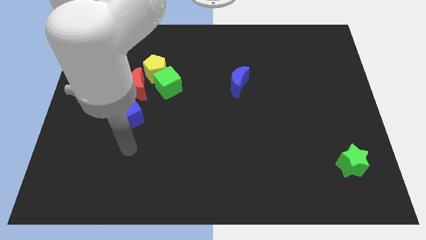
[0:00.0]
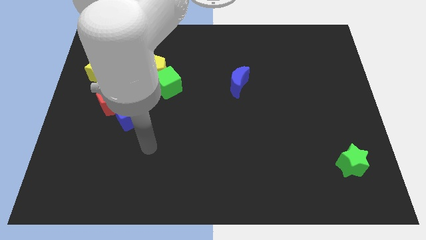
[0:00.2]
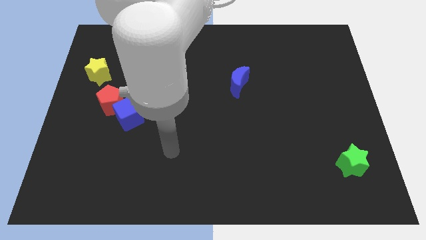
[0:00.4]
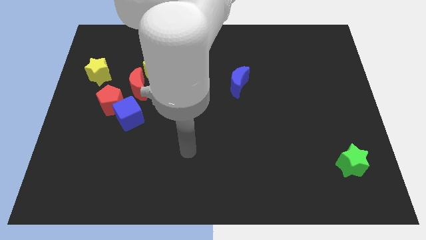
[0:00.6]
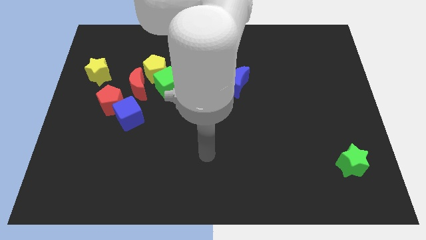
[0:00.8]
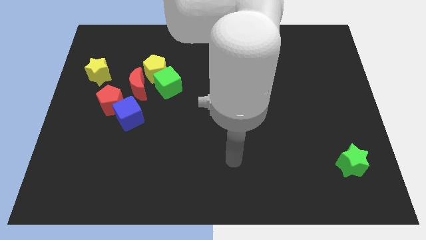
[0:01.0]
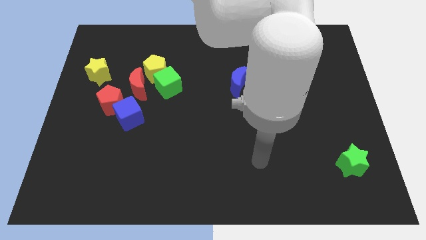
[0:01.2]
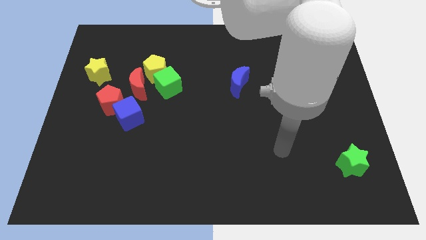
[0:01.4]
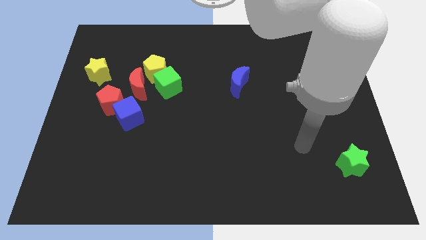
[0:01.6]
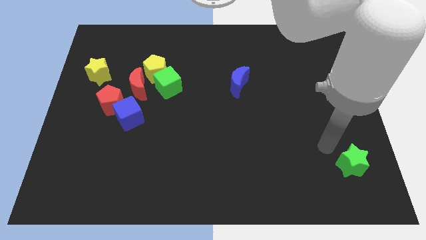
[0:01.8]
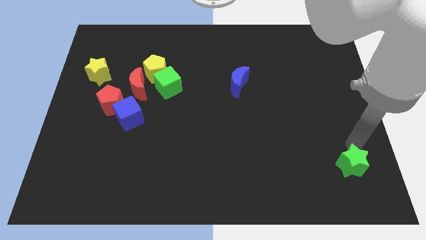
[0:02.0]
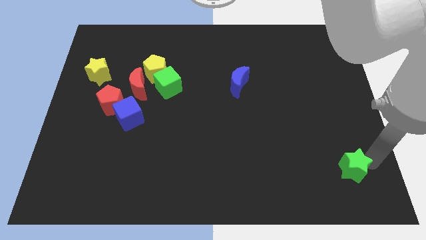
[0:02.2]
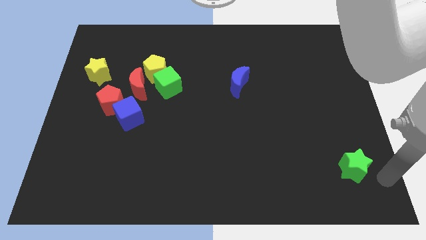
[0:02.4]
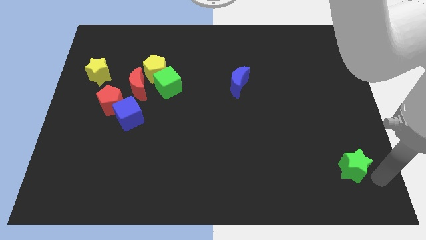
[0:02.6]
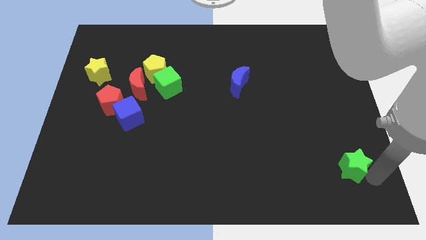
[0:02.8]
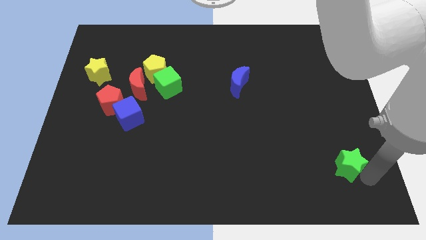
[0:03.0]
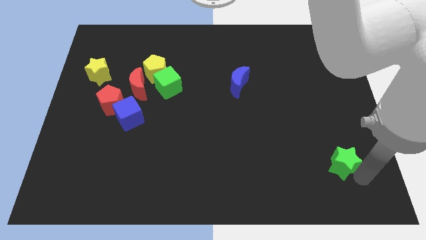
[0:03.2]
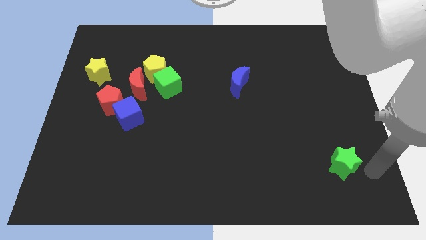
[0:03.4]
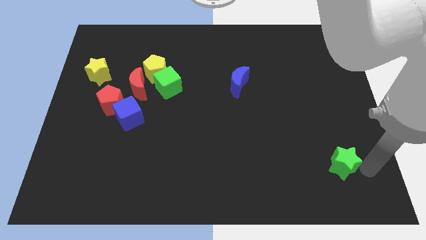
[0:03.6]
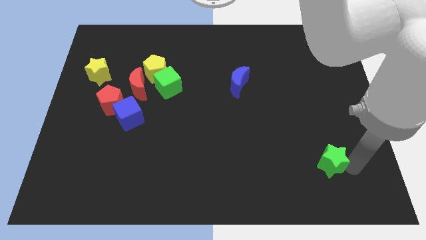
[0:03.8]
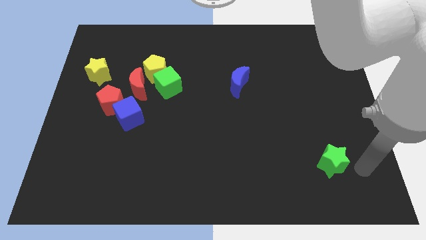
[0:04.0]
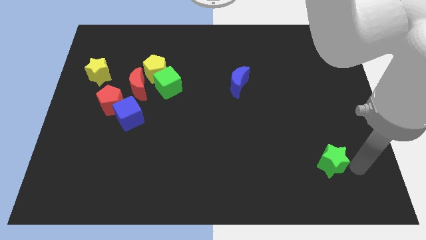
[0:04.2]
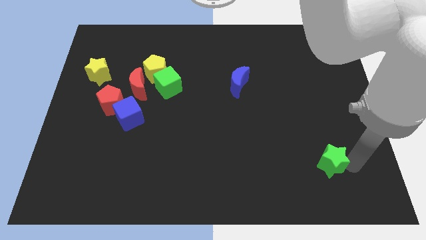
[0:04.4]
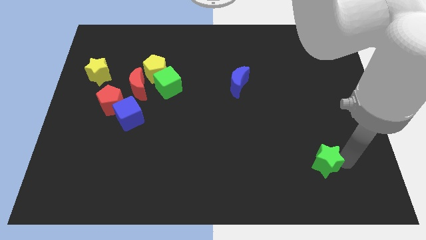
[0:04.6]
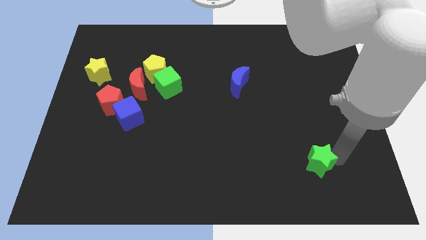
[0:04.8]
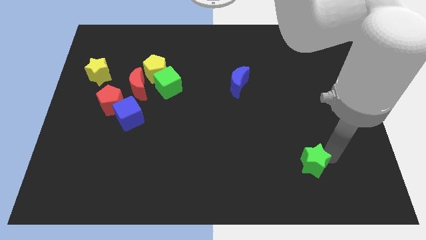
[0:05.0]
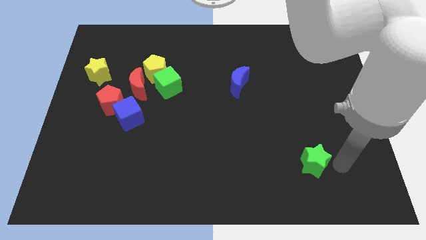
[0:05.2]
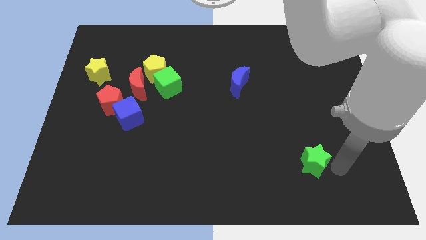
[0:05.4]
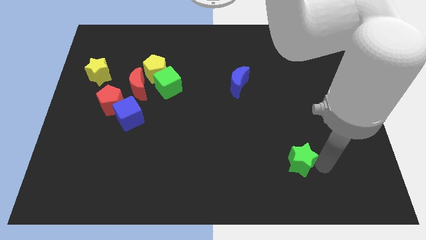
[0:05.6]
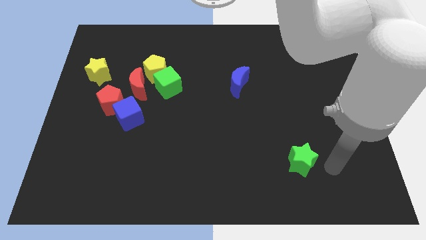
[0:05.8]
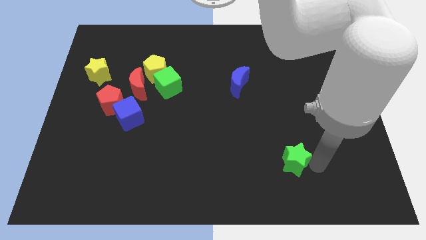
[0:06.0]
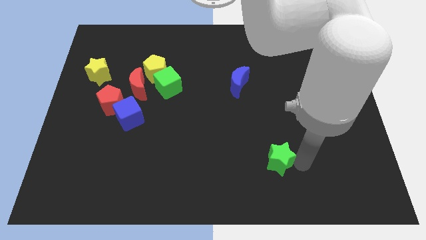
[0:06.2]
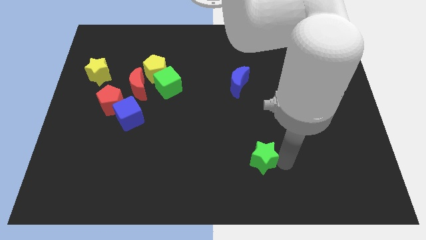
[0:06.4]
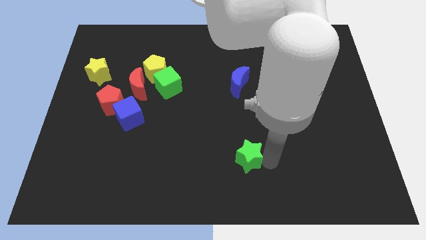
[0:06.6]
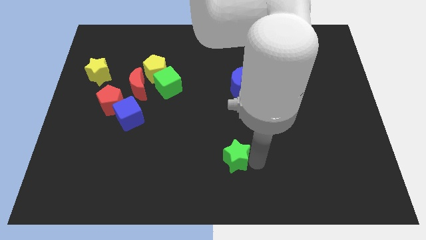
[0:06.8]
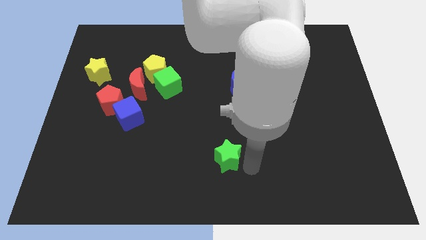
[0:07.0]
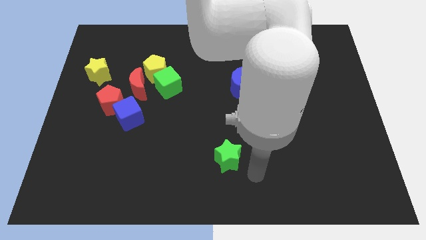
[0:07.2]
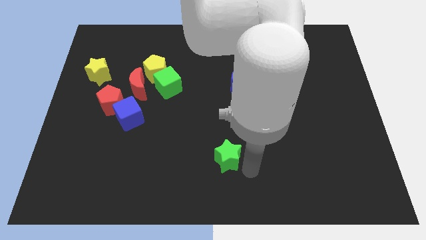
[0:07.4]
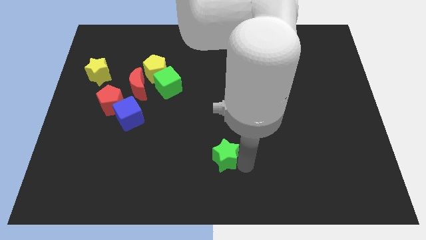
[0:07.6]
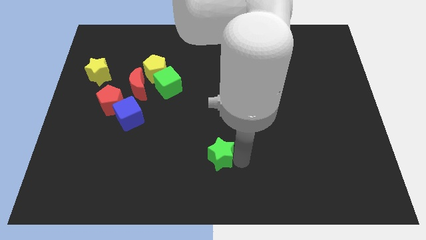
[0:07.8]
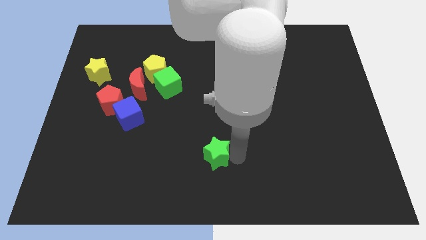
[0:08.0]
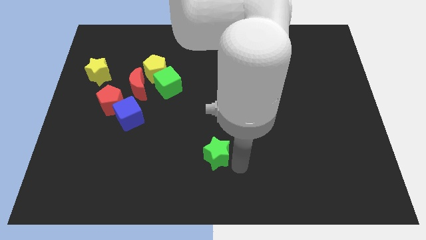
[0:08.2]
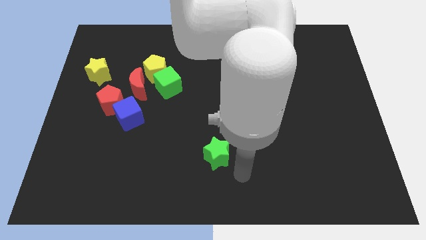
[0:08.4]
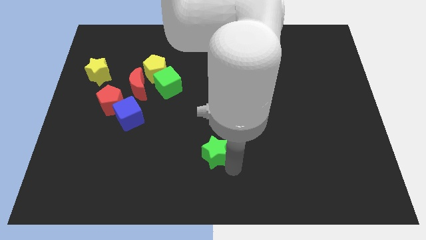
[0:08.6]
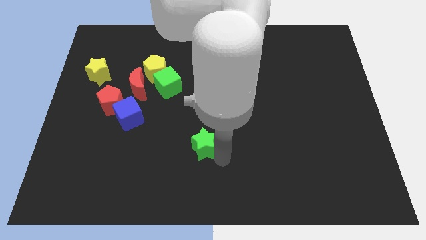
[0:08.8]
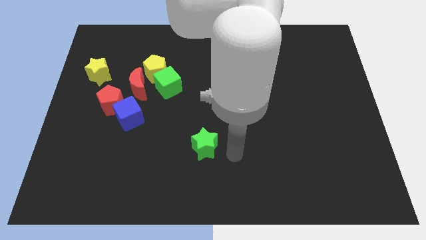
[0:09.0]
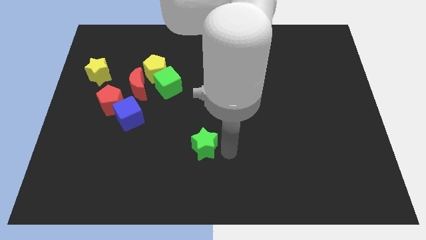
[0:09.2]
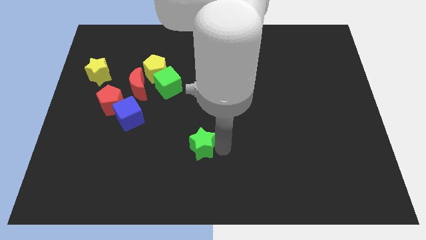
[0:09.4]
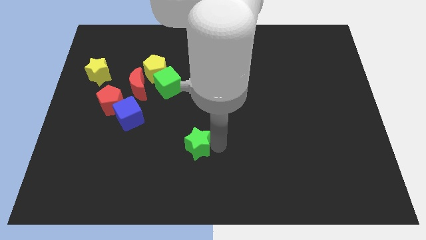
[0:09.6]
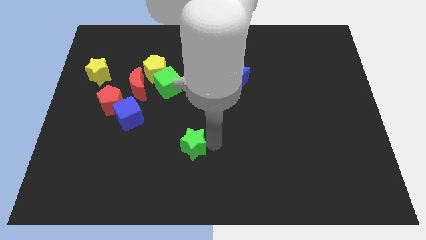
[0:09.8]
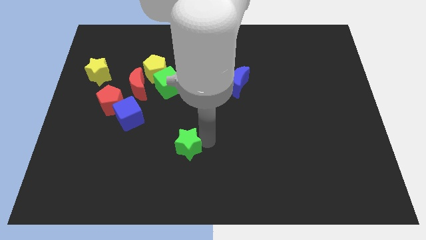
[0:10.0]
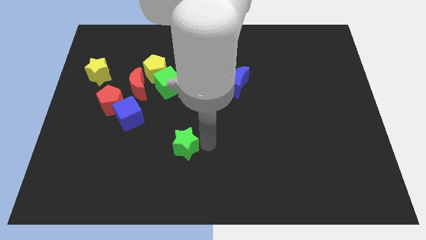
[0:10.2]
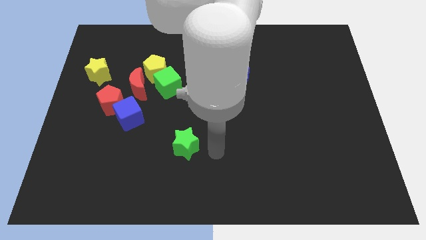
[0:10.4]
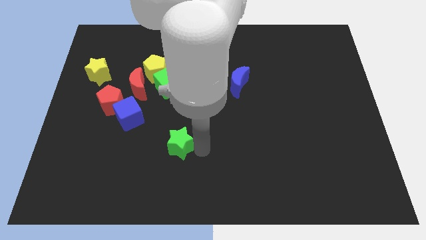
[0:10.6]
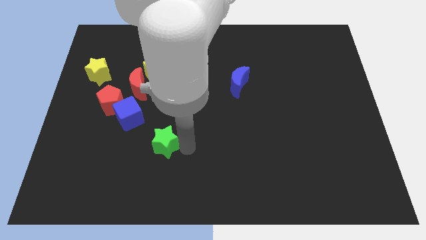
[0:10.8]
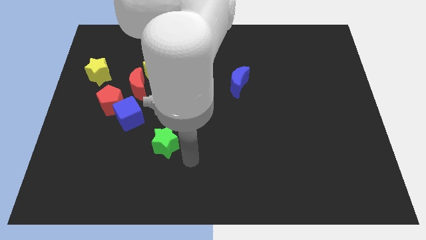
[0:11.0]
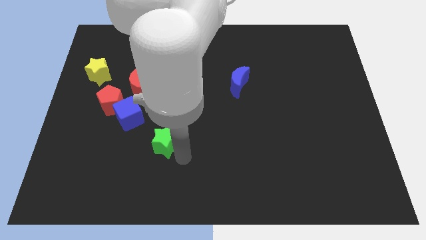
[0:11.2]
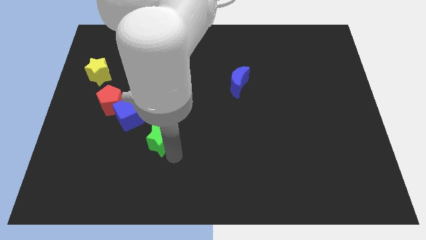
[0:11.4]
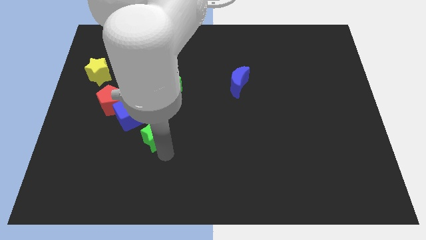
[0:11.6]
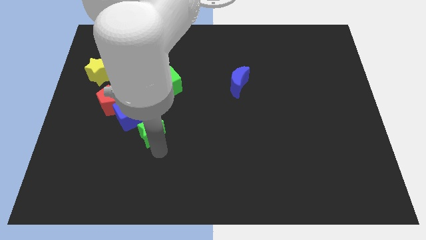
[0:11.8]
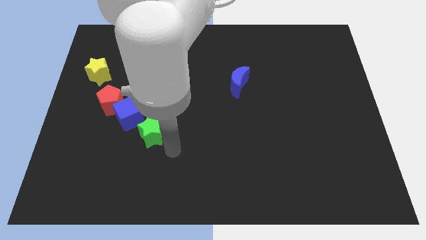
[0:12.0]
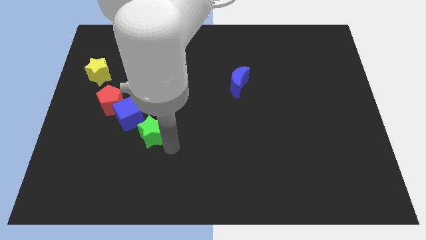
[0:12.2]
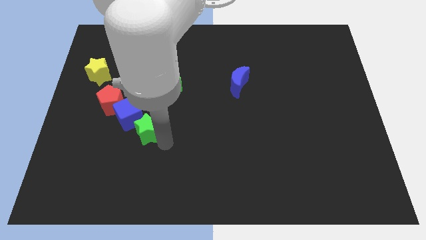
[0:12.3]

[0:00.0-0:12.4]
push the green star to the bottom of the red moon

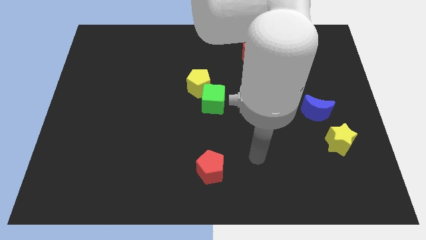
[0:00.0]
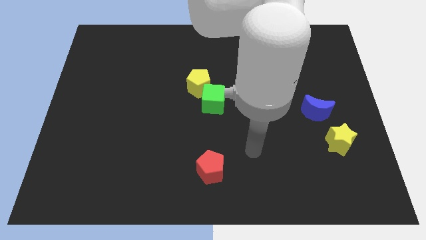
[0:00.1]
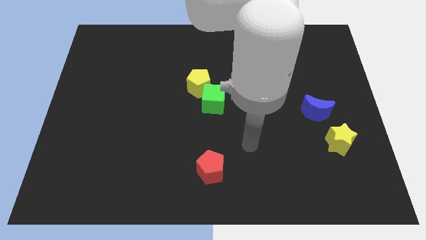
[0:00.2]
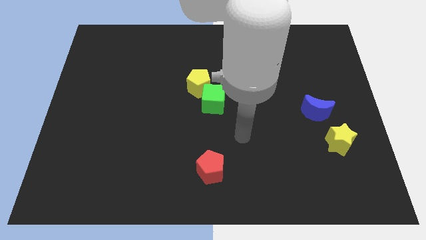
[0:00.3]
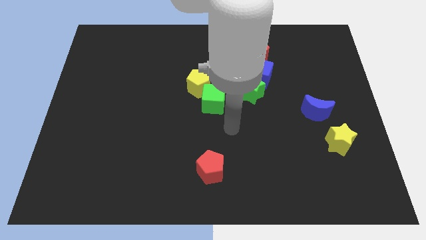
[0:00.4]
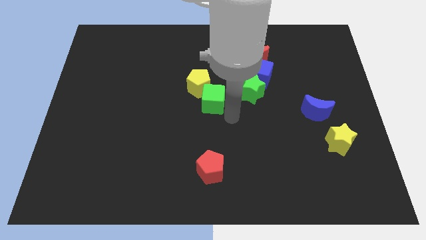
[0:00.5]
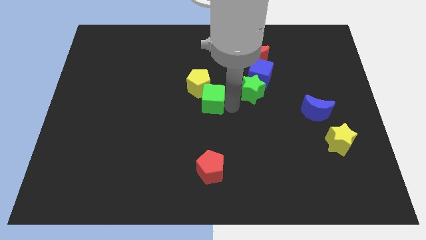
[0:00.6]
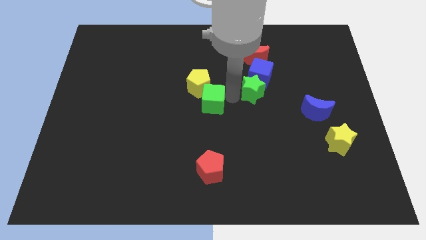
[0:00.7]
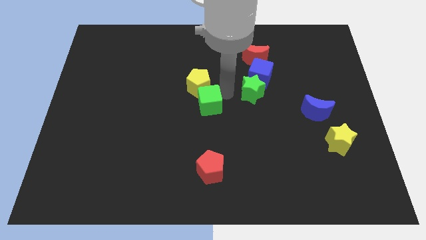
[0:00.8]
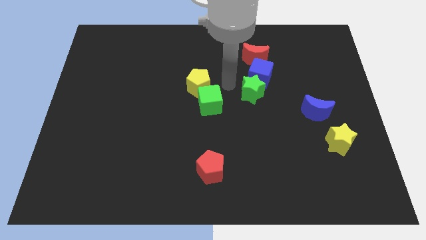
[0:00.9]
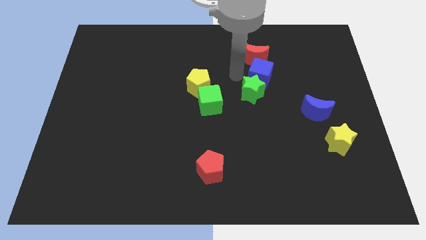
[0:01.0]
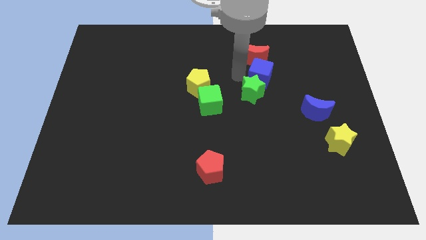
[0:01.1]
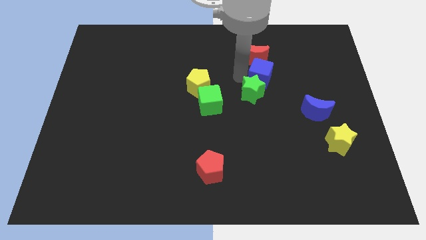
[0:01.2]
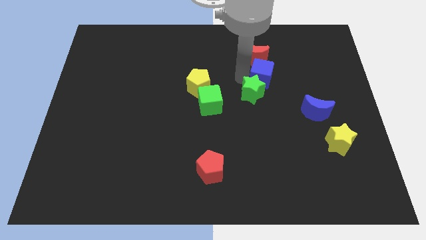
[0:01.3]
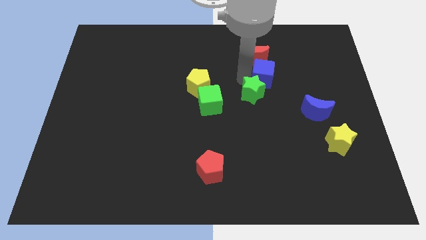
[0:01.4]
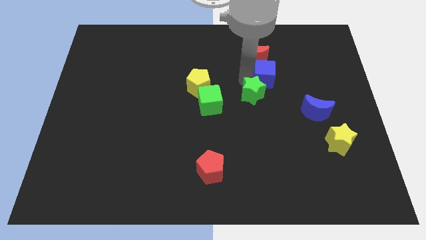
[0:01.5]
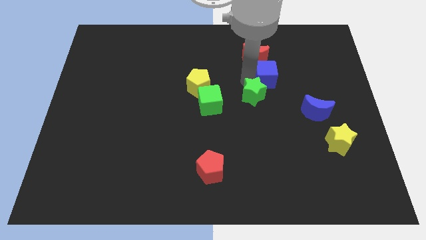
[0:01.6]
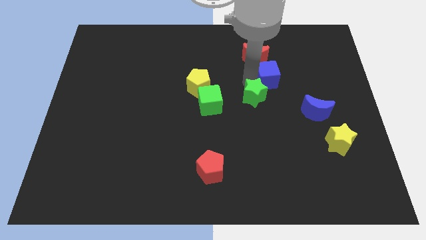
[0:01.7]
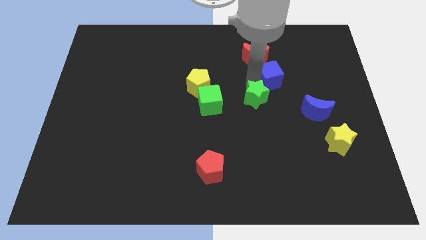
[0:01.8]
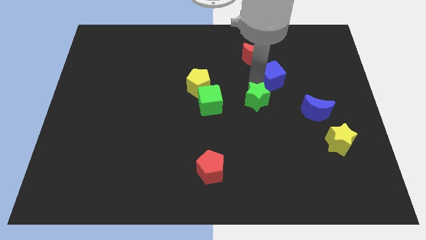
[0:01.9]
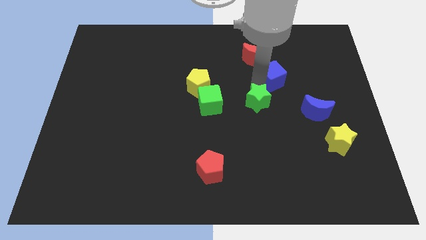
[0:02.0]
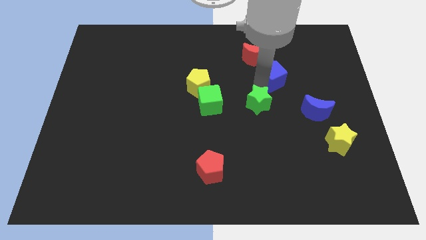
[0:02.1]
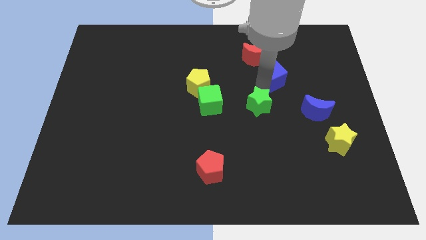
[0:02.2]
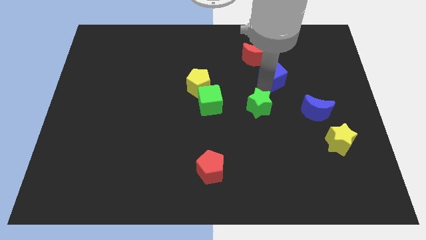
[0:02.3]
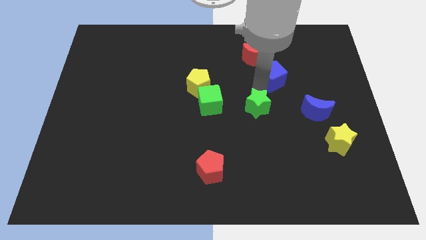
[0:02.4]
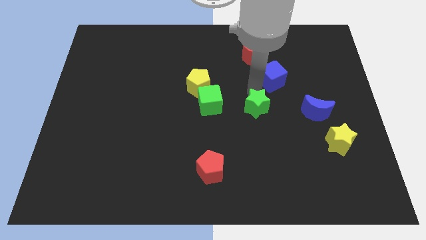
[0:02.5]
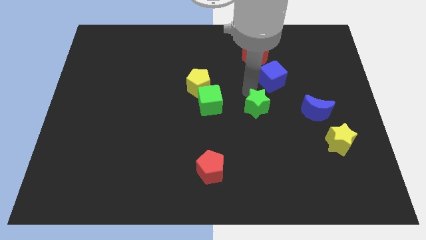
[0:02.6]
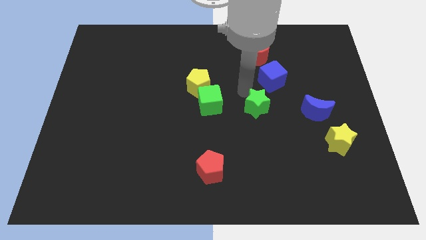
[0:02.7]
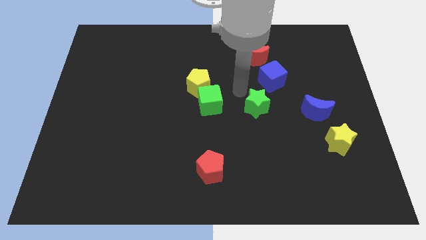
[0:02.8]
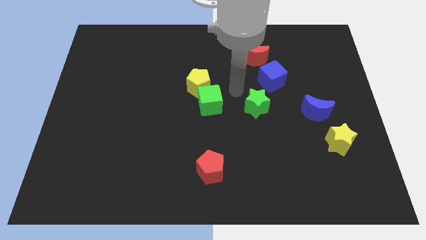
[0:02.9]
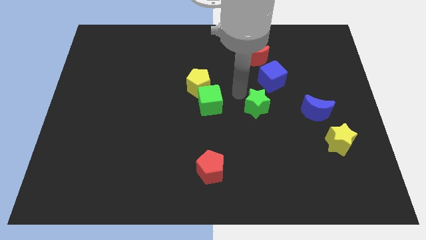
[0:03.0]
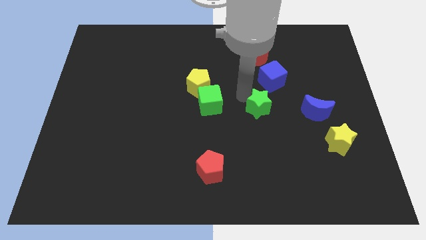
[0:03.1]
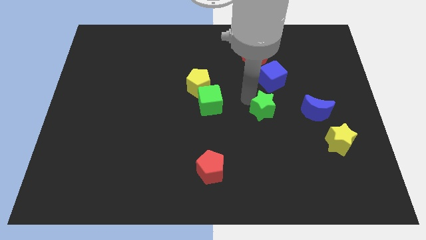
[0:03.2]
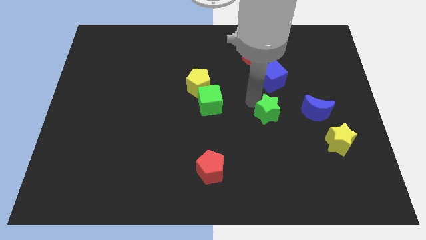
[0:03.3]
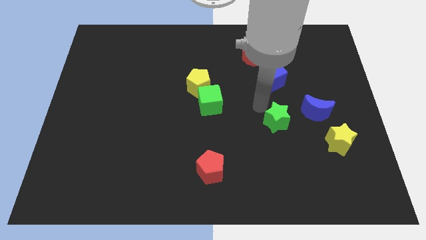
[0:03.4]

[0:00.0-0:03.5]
move the green star to the bottom left of the blue moon
